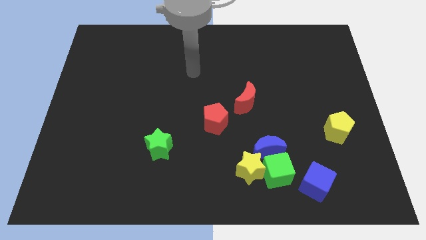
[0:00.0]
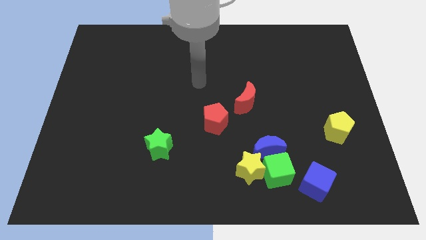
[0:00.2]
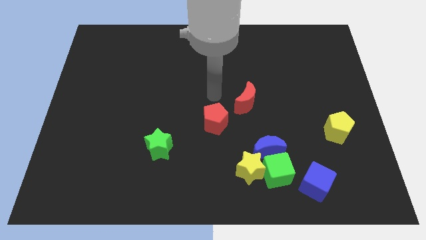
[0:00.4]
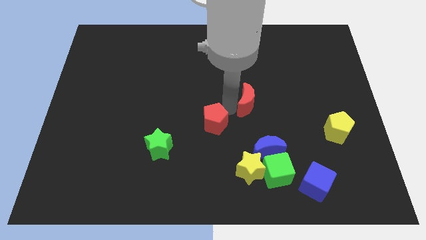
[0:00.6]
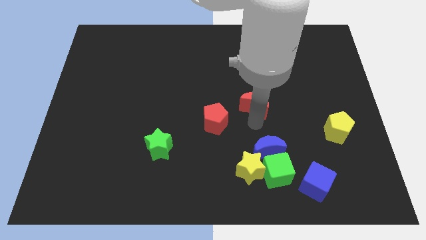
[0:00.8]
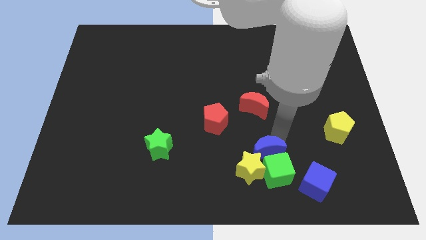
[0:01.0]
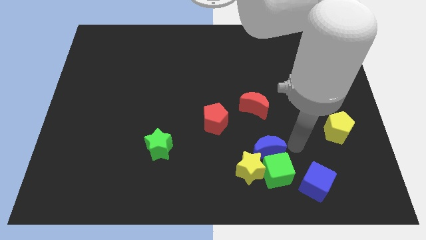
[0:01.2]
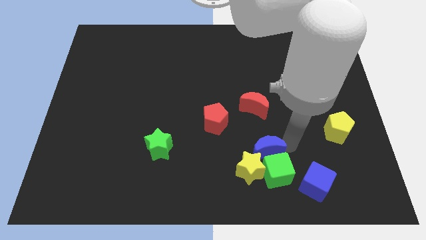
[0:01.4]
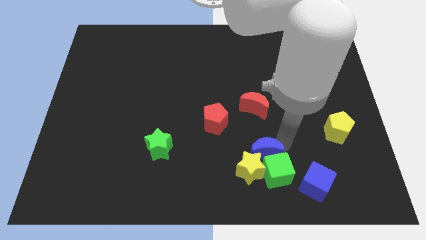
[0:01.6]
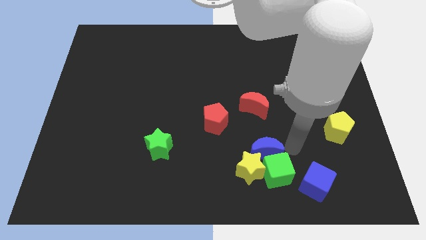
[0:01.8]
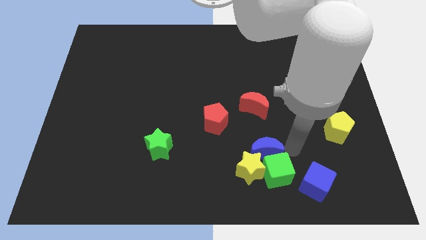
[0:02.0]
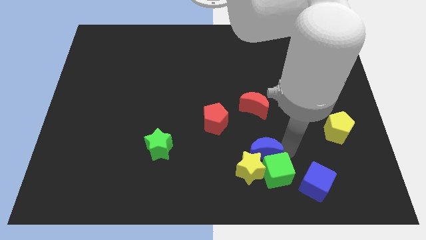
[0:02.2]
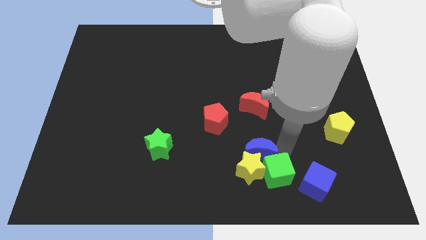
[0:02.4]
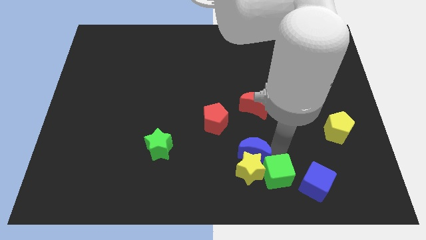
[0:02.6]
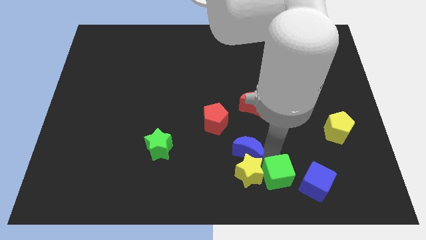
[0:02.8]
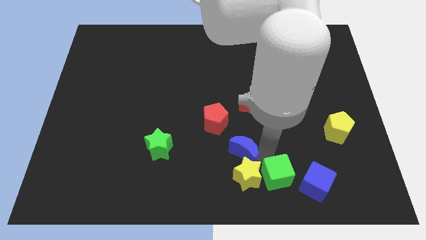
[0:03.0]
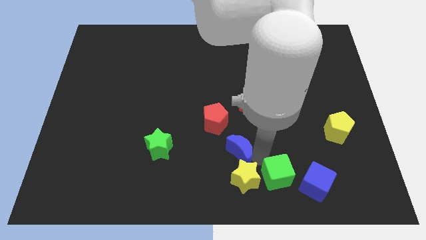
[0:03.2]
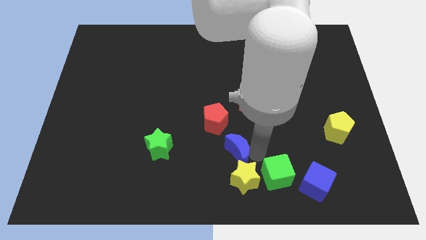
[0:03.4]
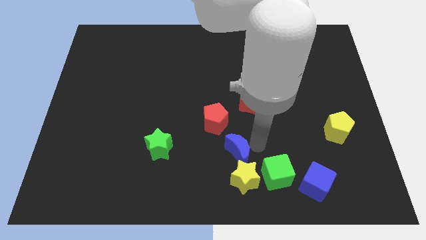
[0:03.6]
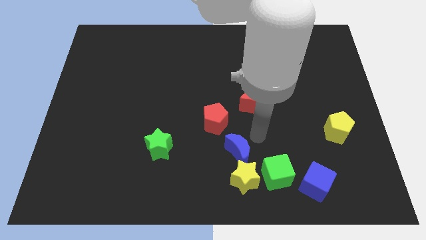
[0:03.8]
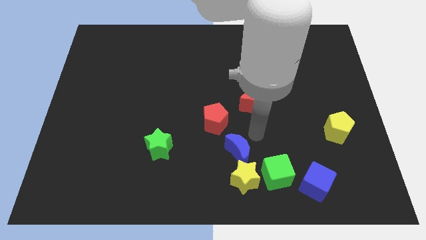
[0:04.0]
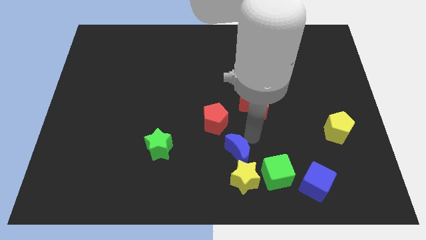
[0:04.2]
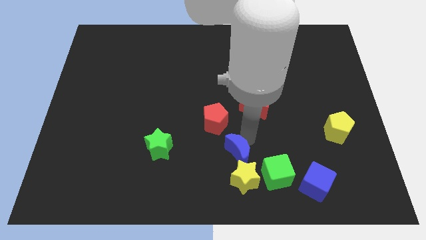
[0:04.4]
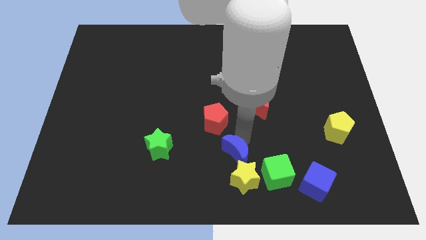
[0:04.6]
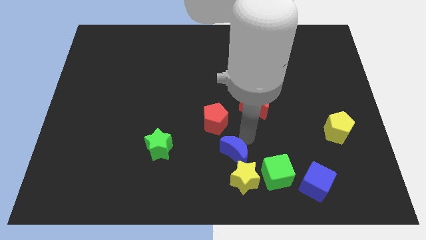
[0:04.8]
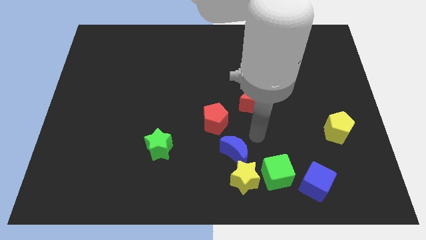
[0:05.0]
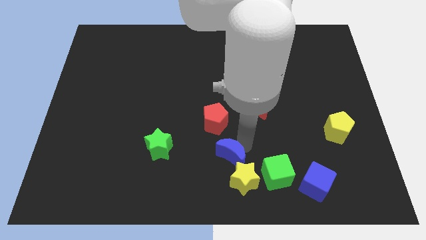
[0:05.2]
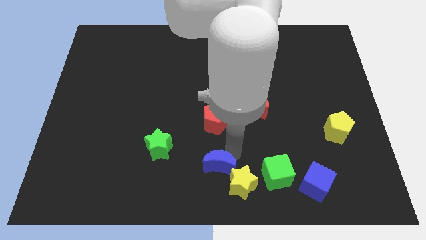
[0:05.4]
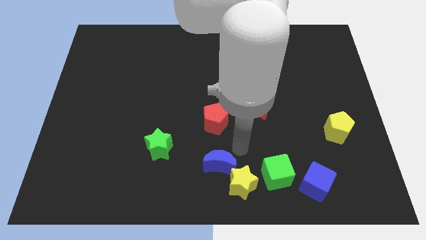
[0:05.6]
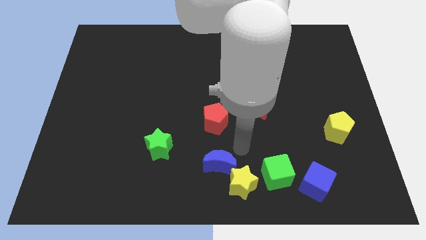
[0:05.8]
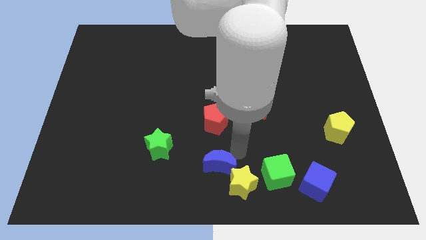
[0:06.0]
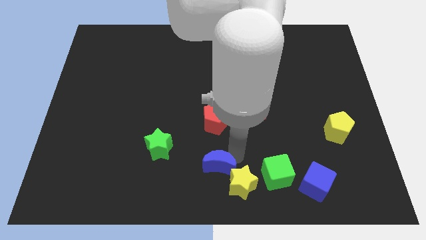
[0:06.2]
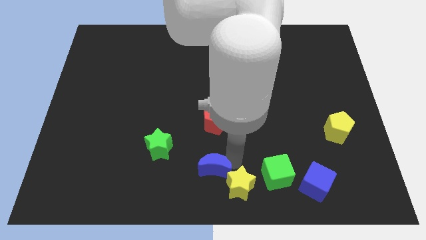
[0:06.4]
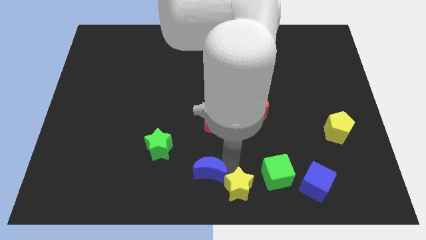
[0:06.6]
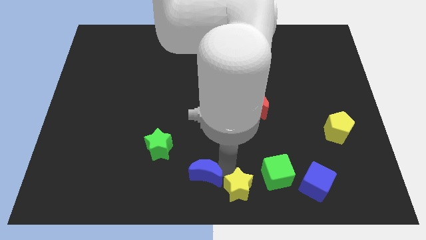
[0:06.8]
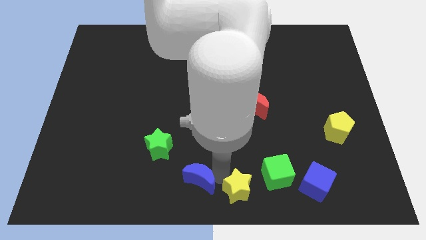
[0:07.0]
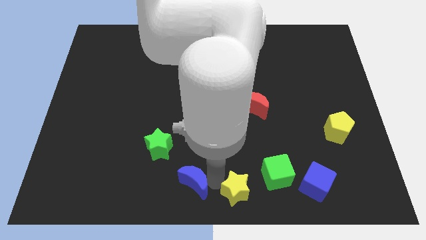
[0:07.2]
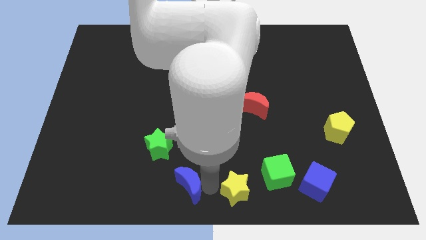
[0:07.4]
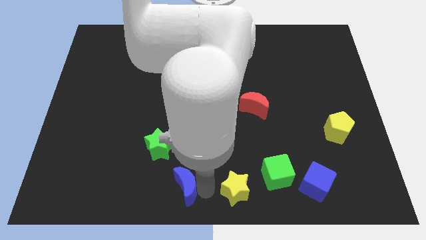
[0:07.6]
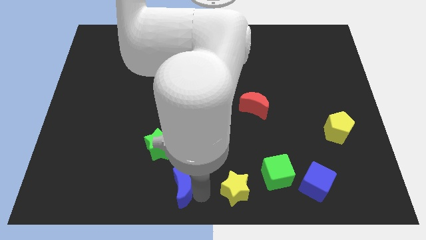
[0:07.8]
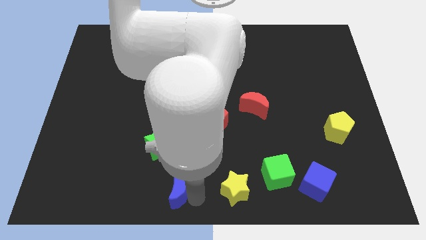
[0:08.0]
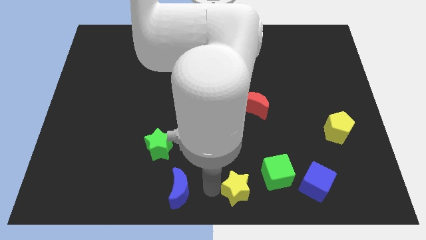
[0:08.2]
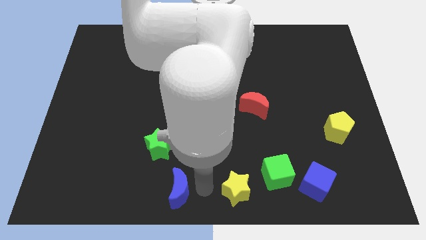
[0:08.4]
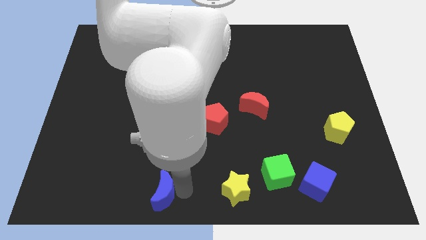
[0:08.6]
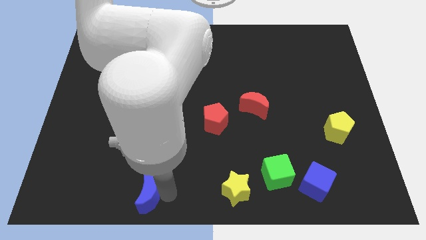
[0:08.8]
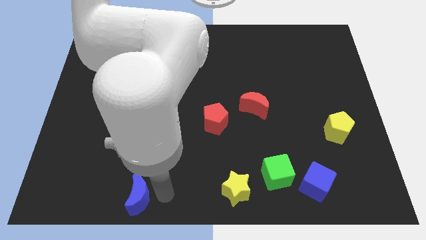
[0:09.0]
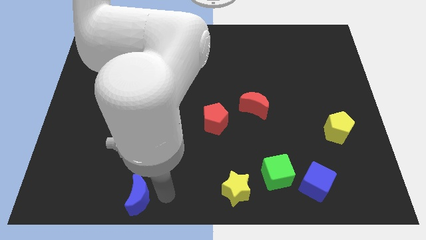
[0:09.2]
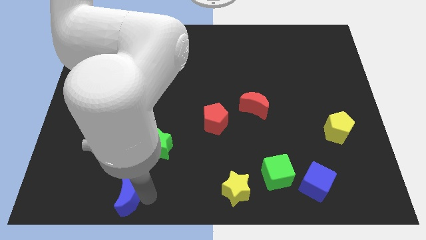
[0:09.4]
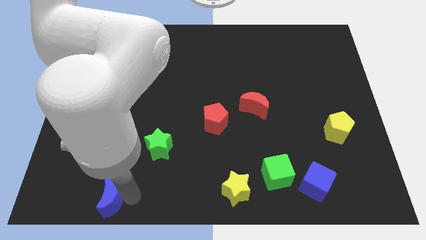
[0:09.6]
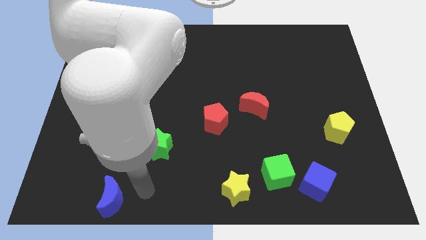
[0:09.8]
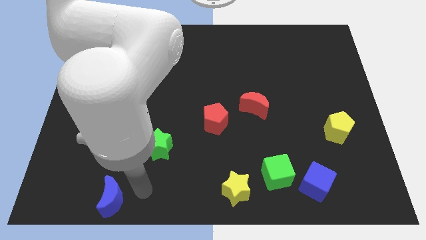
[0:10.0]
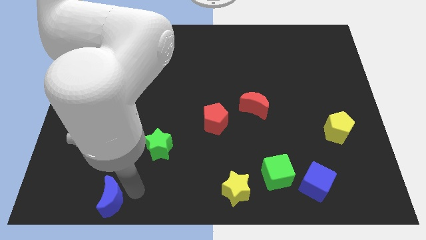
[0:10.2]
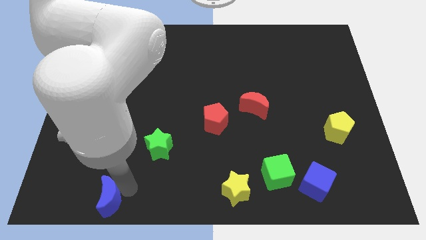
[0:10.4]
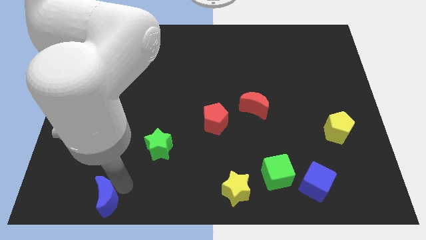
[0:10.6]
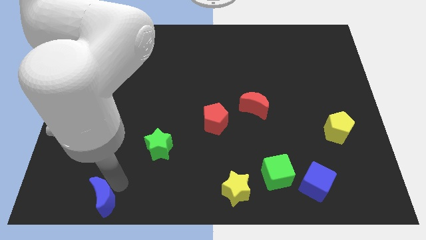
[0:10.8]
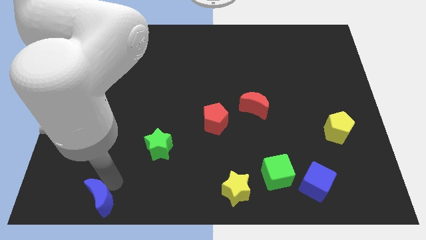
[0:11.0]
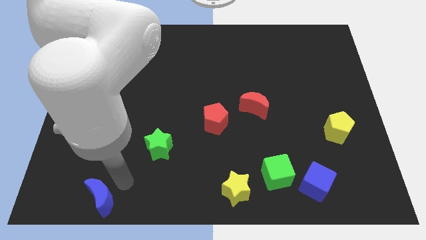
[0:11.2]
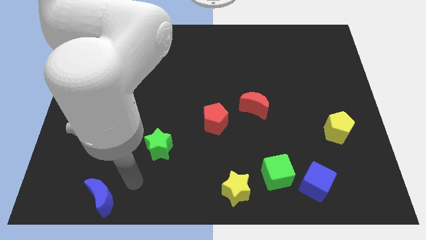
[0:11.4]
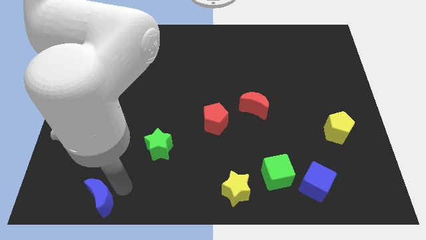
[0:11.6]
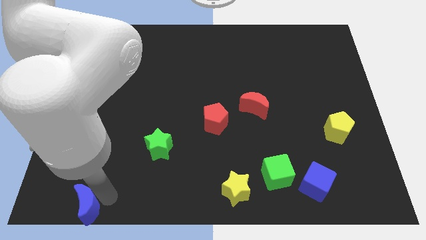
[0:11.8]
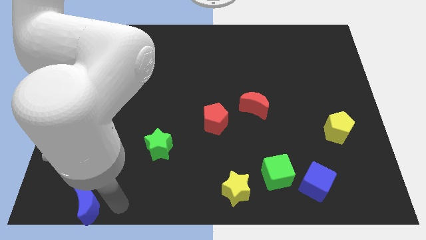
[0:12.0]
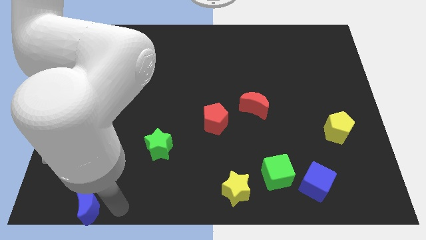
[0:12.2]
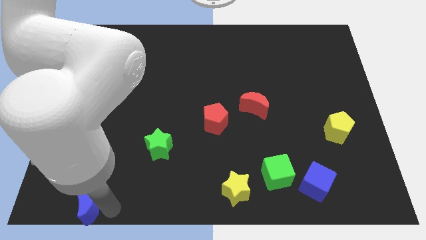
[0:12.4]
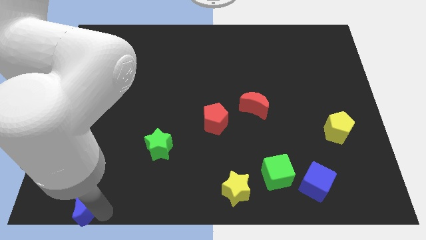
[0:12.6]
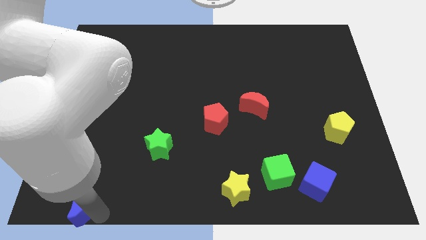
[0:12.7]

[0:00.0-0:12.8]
slide the blue moon to the bottom left

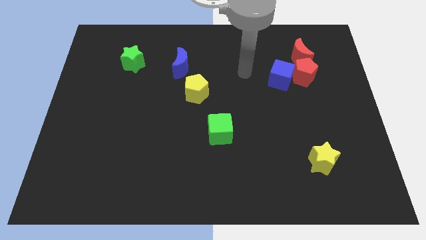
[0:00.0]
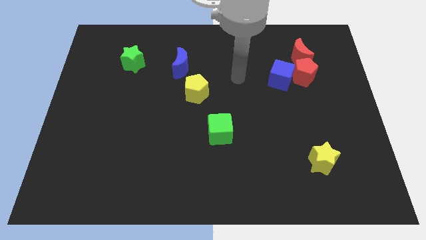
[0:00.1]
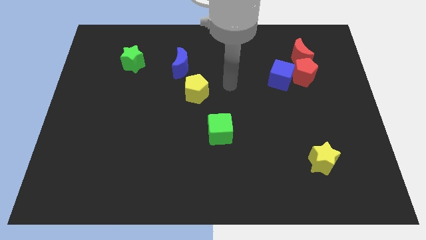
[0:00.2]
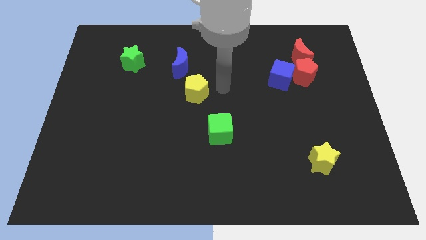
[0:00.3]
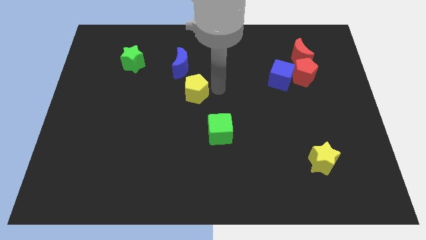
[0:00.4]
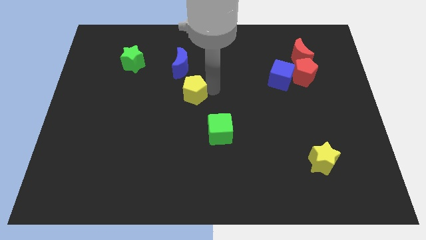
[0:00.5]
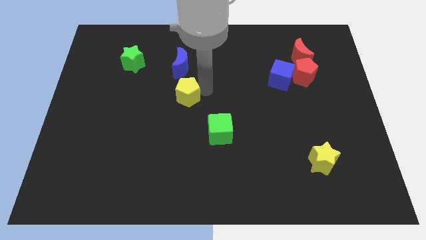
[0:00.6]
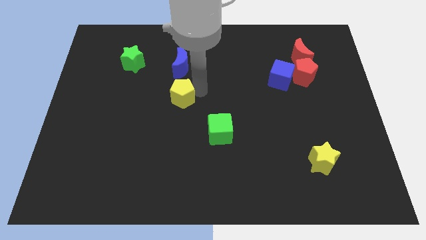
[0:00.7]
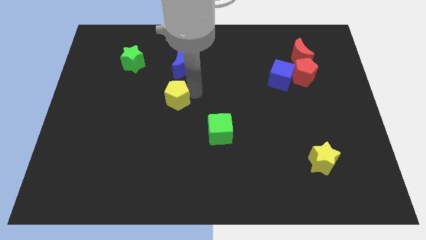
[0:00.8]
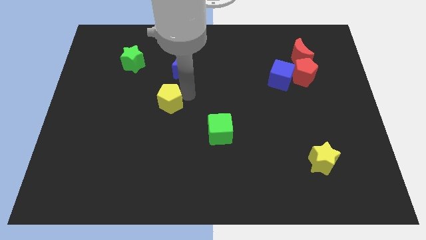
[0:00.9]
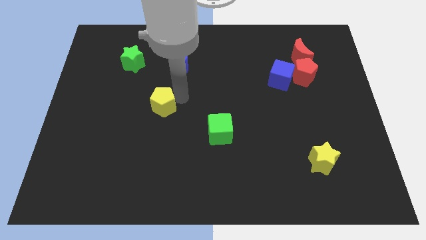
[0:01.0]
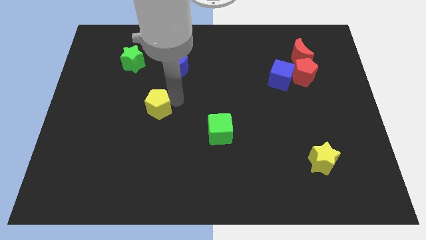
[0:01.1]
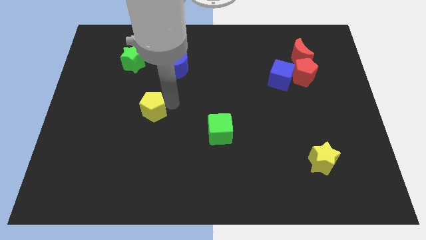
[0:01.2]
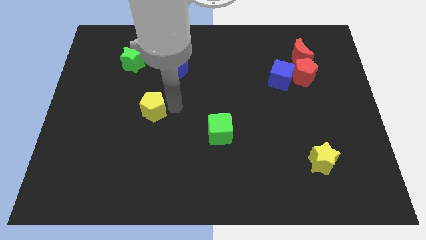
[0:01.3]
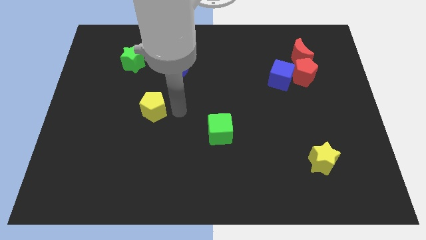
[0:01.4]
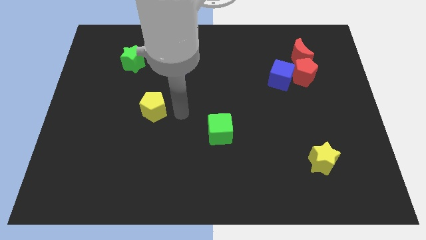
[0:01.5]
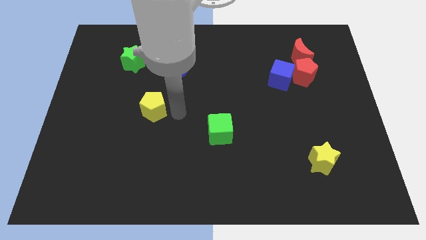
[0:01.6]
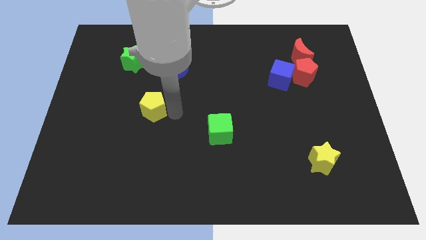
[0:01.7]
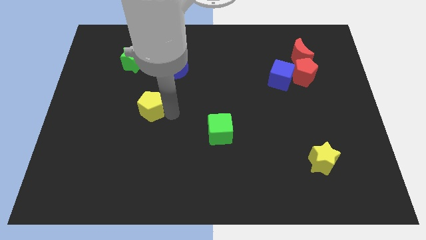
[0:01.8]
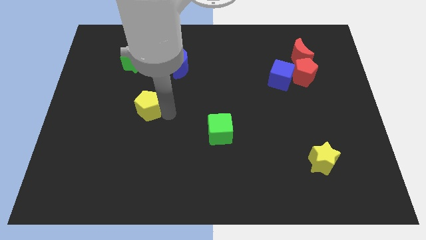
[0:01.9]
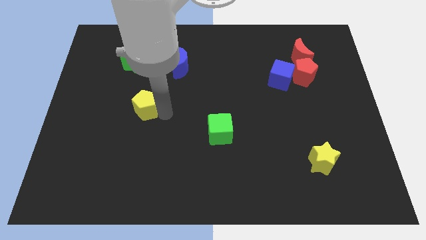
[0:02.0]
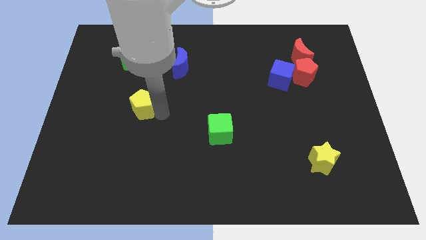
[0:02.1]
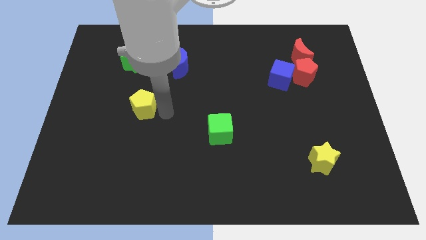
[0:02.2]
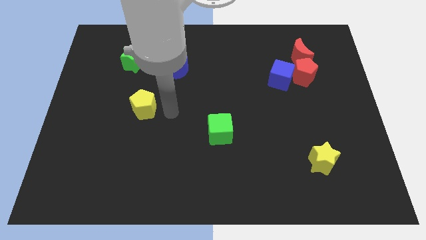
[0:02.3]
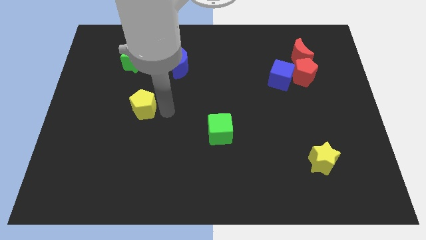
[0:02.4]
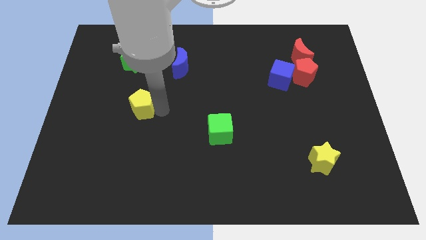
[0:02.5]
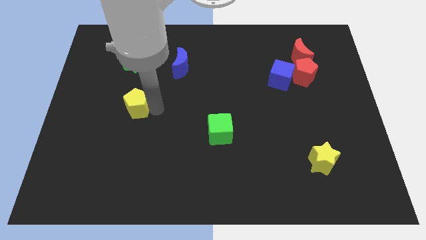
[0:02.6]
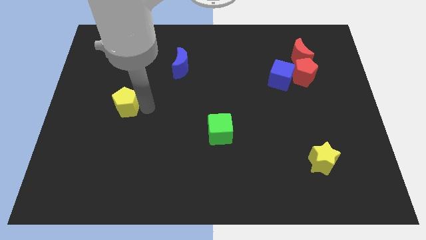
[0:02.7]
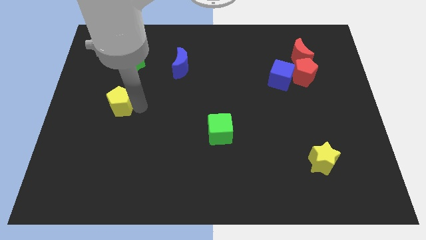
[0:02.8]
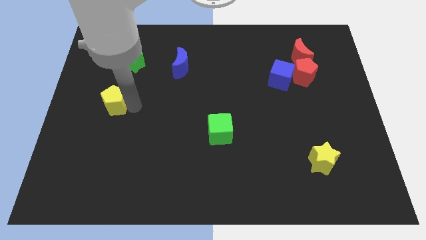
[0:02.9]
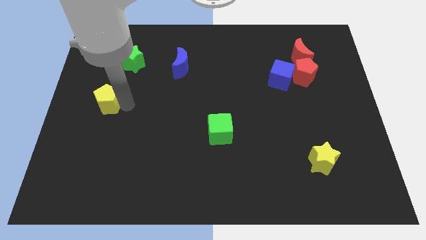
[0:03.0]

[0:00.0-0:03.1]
slide the yellow pentagon to the center left
